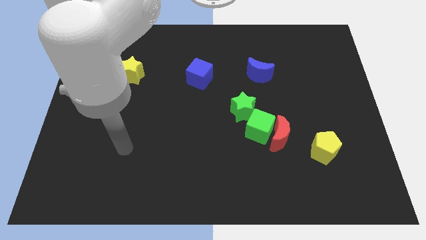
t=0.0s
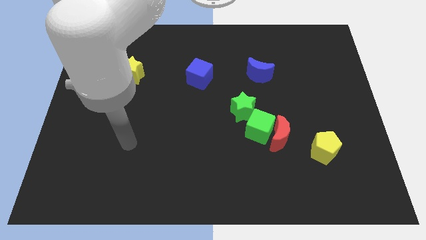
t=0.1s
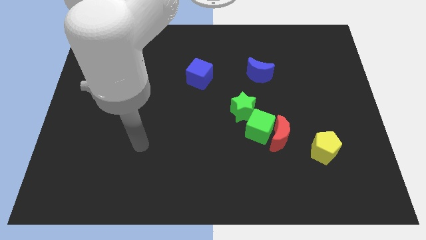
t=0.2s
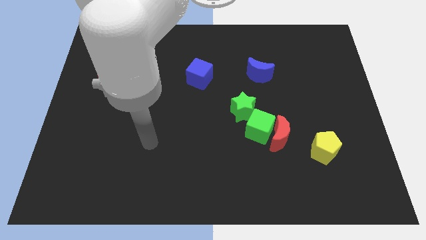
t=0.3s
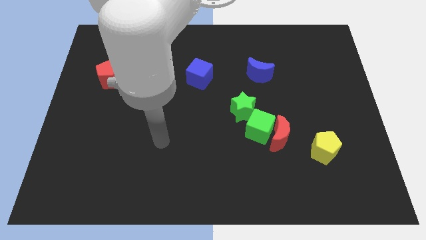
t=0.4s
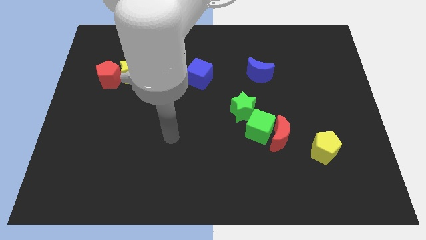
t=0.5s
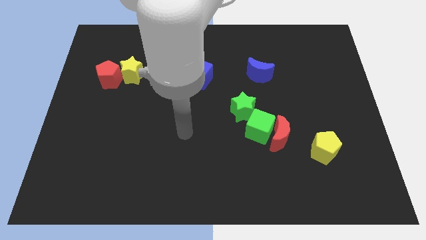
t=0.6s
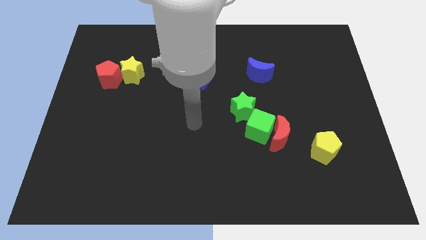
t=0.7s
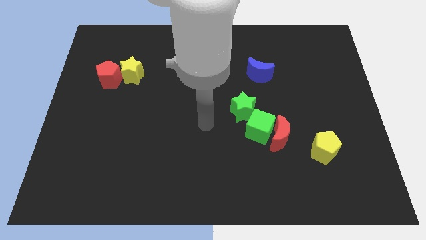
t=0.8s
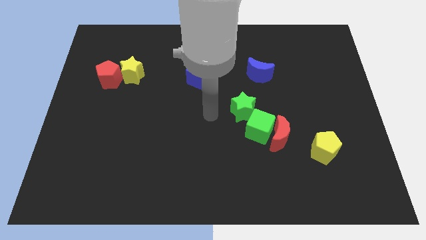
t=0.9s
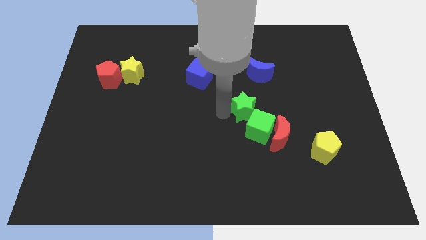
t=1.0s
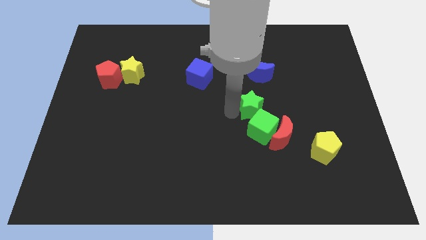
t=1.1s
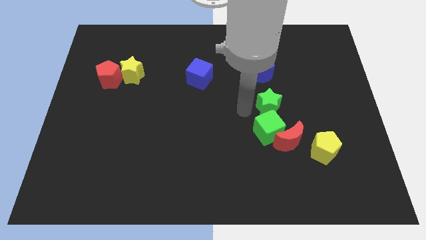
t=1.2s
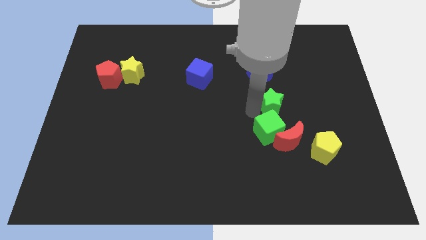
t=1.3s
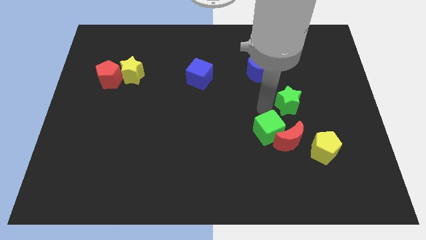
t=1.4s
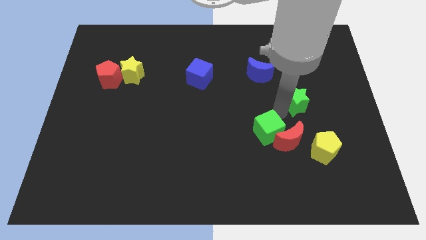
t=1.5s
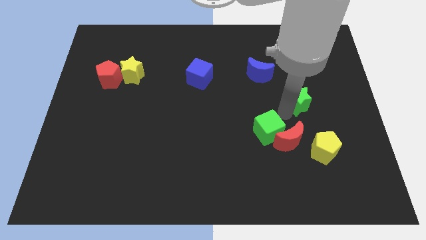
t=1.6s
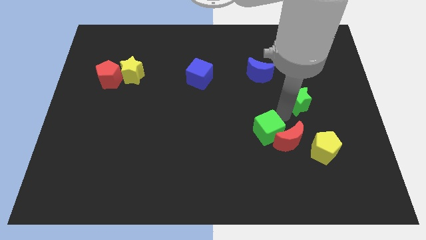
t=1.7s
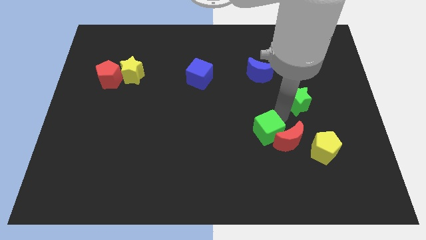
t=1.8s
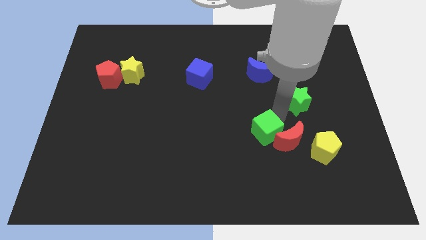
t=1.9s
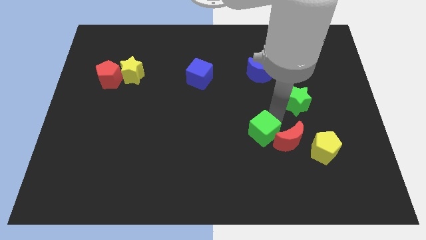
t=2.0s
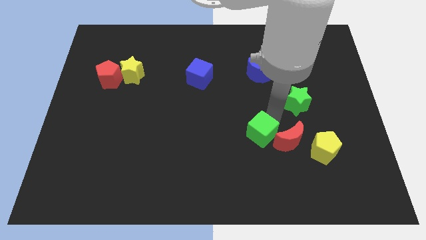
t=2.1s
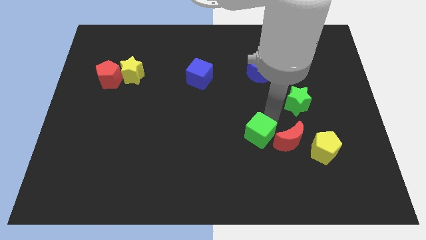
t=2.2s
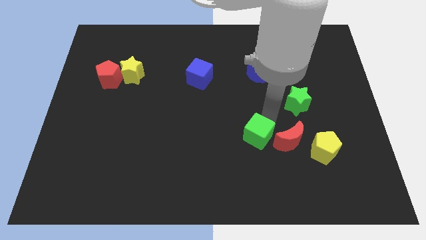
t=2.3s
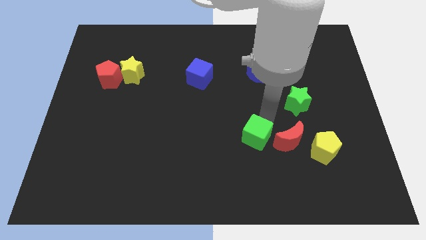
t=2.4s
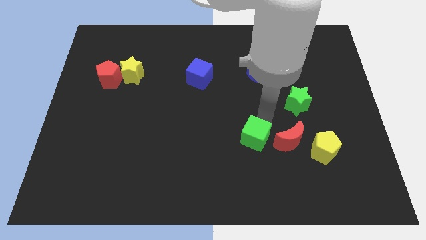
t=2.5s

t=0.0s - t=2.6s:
pull the green cube apart from the red moon and green star

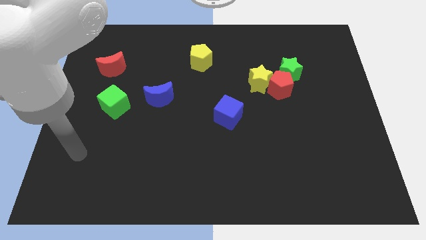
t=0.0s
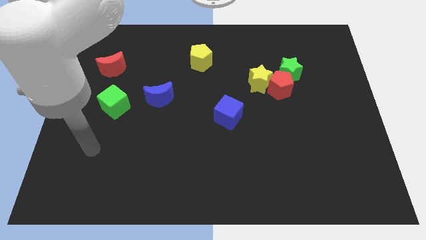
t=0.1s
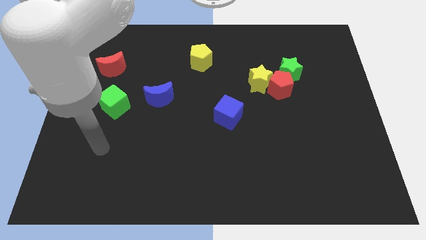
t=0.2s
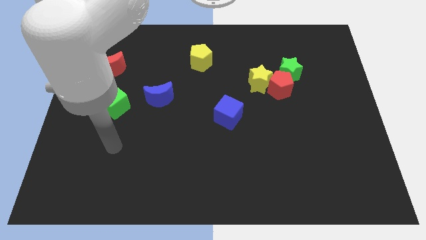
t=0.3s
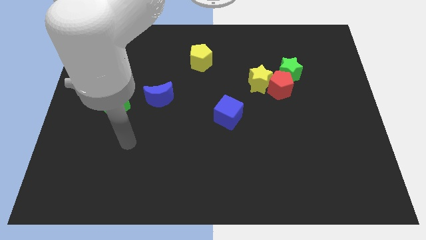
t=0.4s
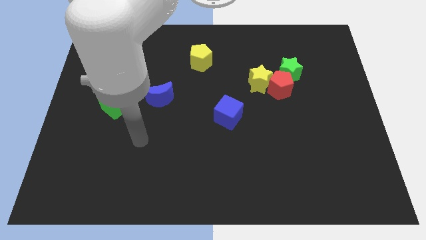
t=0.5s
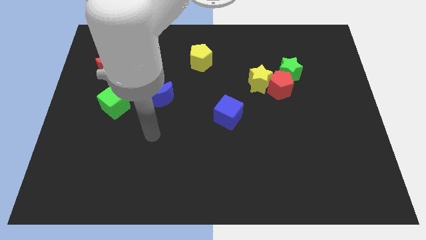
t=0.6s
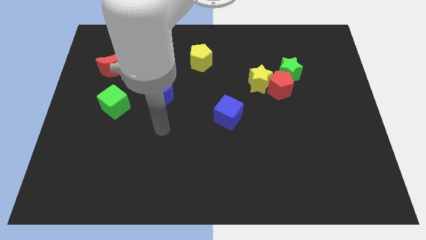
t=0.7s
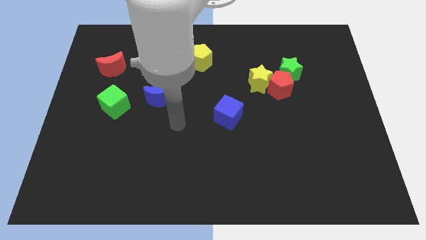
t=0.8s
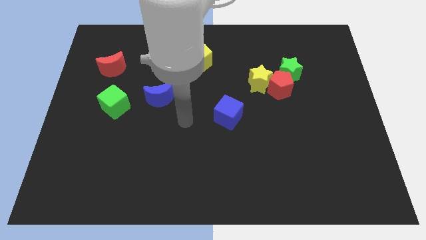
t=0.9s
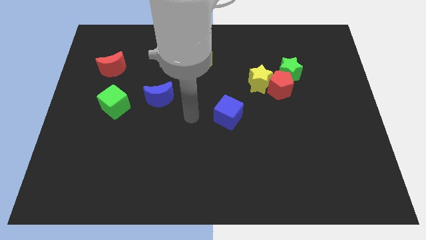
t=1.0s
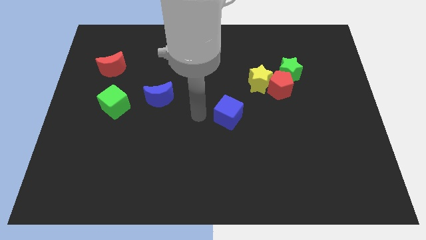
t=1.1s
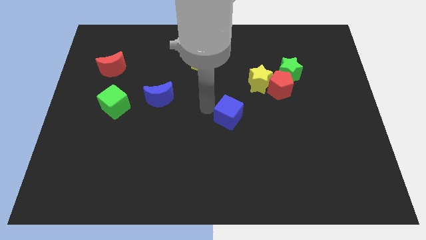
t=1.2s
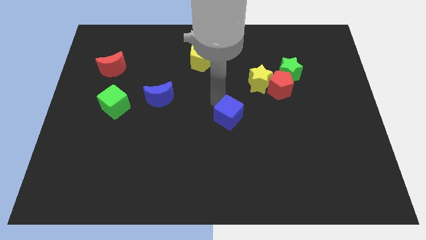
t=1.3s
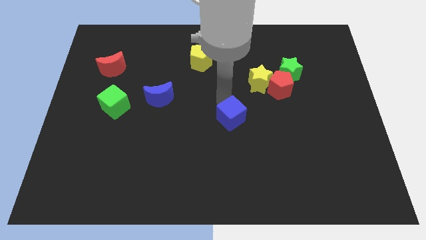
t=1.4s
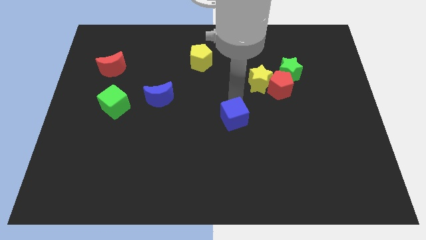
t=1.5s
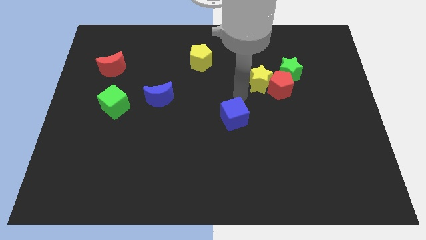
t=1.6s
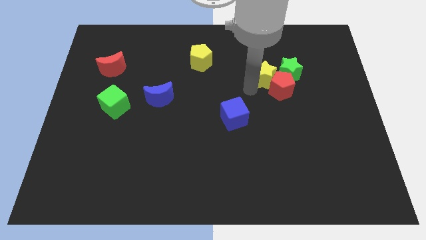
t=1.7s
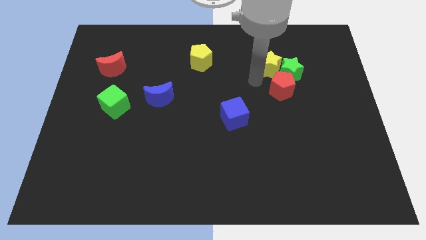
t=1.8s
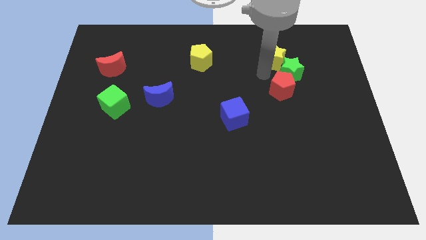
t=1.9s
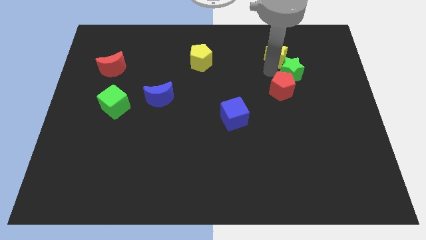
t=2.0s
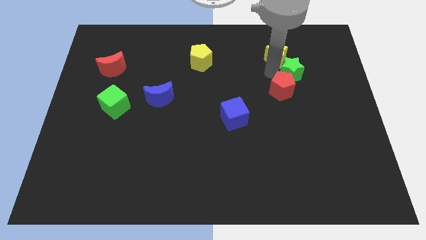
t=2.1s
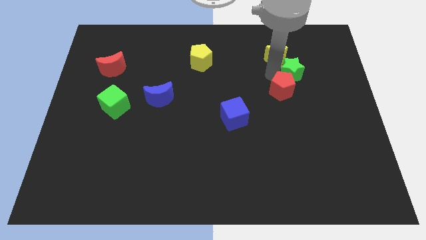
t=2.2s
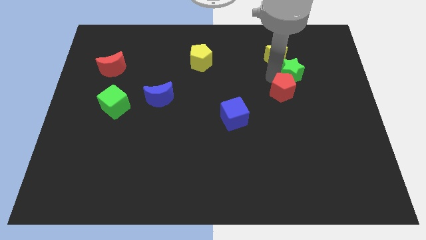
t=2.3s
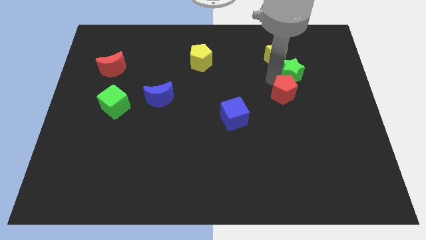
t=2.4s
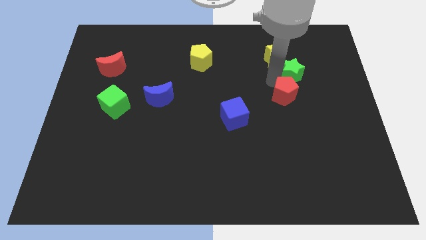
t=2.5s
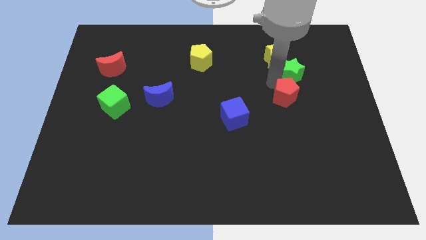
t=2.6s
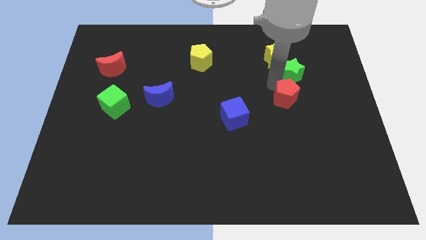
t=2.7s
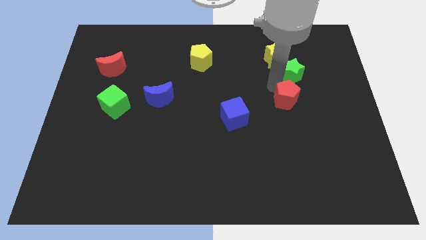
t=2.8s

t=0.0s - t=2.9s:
separate the red pentagon from the yellow star and green star

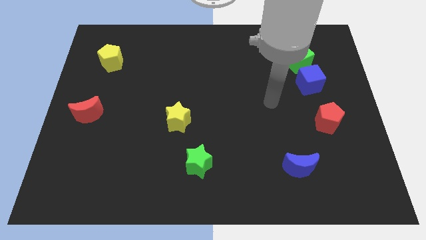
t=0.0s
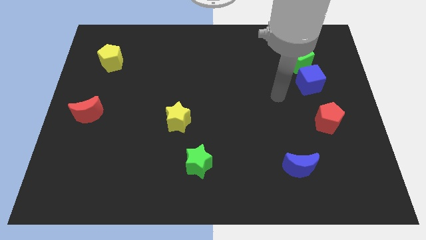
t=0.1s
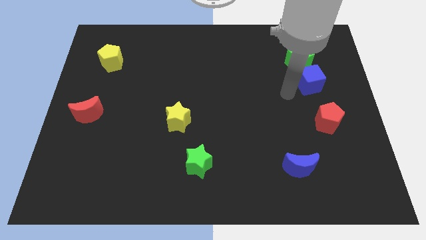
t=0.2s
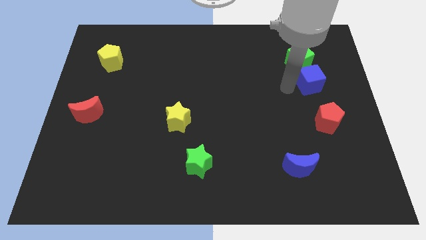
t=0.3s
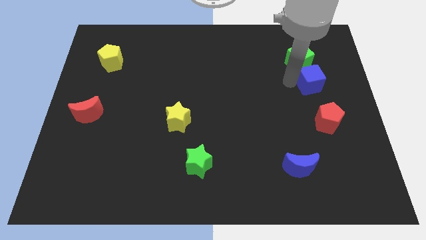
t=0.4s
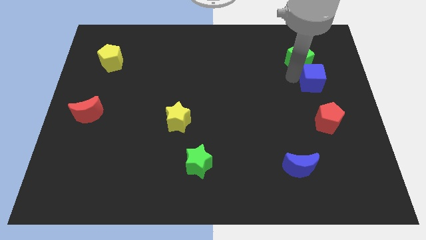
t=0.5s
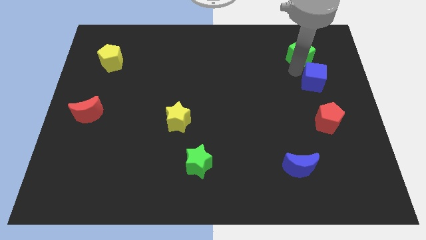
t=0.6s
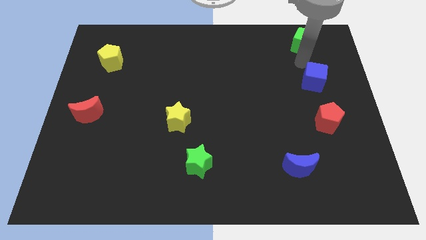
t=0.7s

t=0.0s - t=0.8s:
move the blue cube away from the green cube

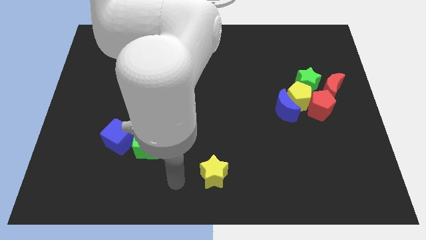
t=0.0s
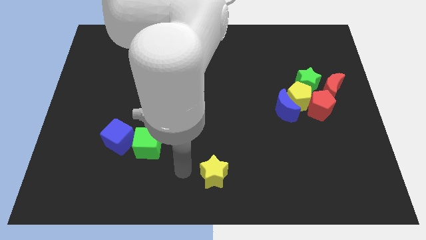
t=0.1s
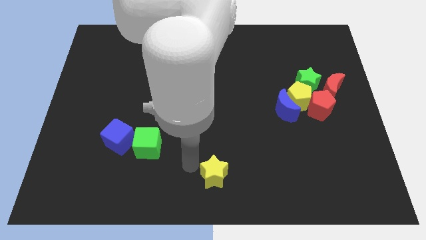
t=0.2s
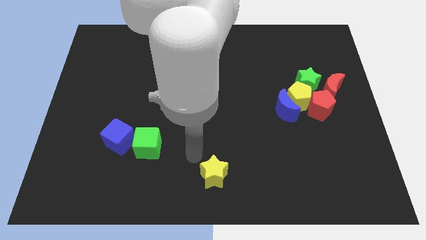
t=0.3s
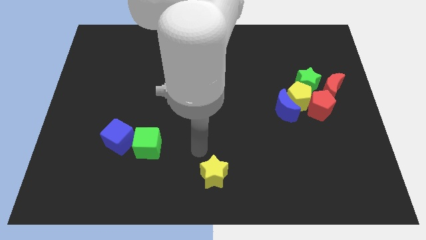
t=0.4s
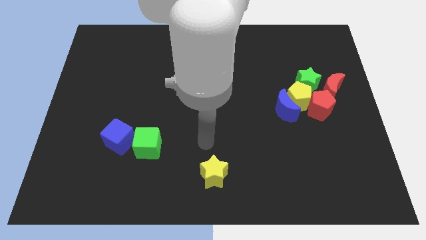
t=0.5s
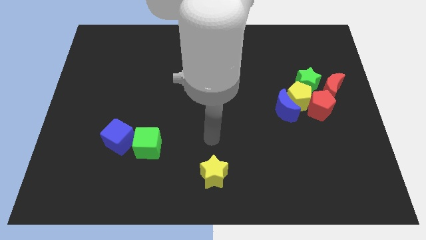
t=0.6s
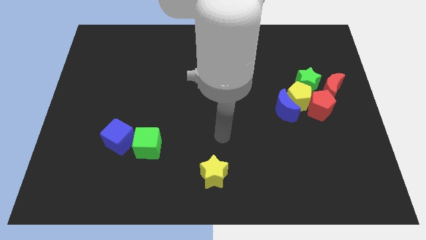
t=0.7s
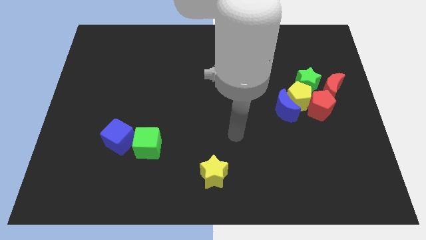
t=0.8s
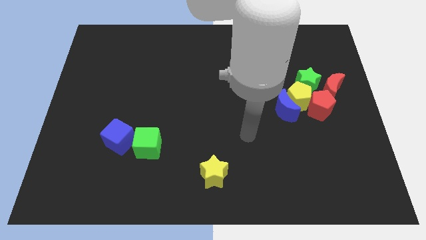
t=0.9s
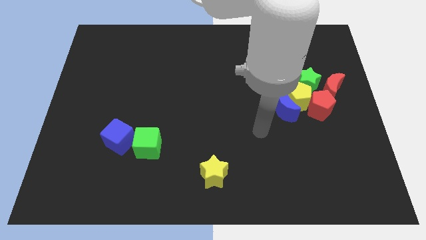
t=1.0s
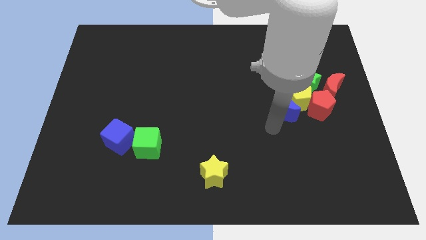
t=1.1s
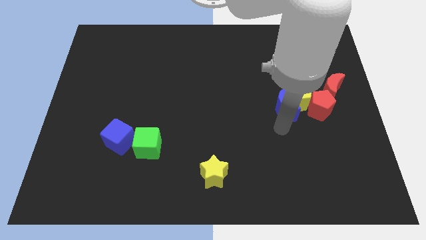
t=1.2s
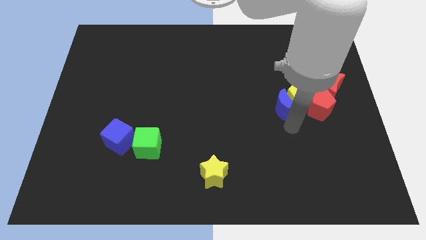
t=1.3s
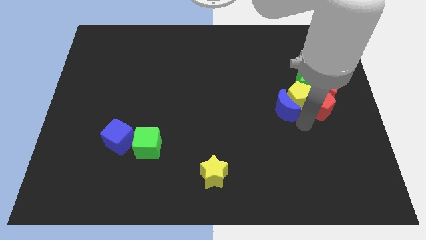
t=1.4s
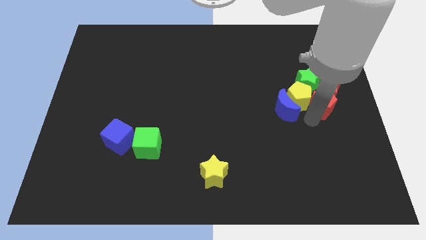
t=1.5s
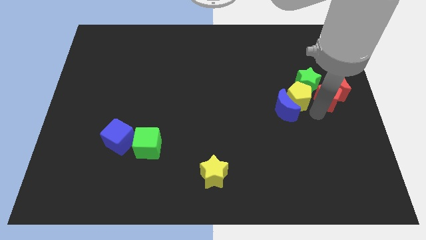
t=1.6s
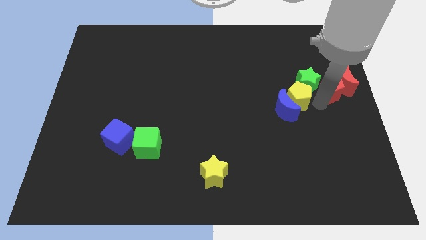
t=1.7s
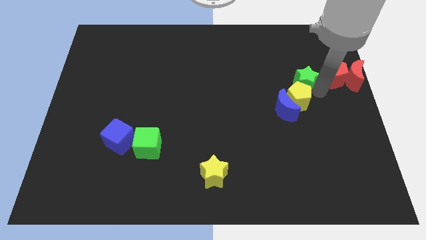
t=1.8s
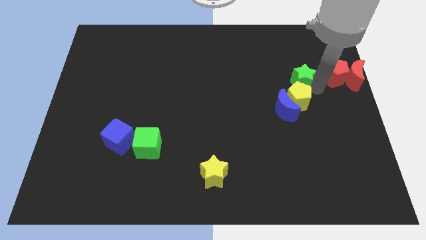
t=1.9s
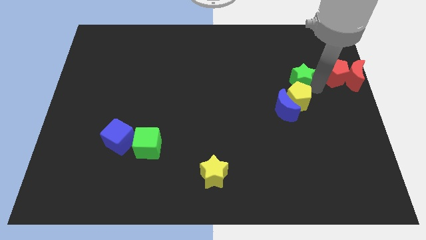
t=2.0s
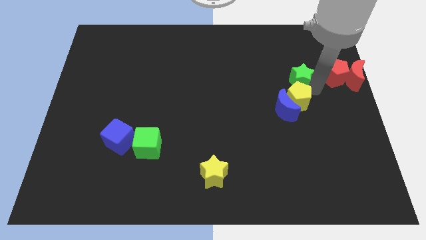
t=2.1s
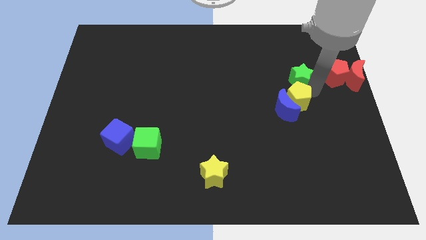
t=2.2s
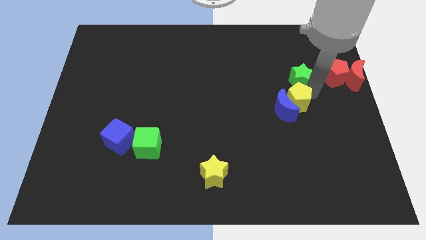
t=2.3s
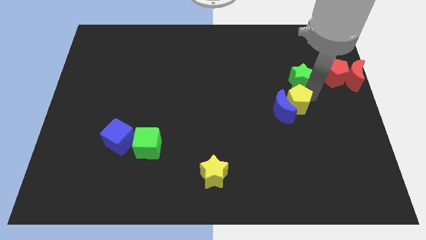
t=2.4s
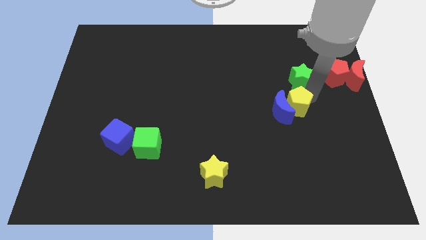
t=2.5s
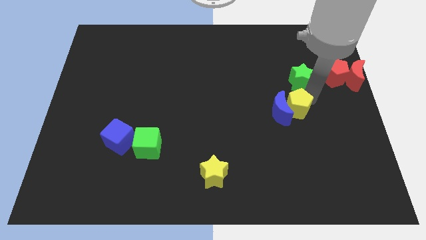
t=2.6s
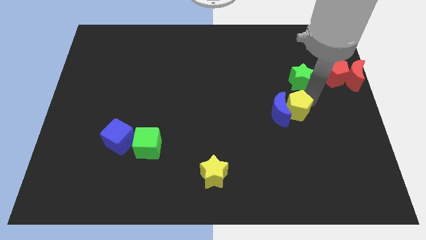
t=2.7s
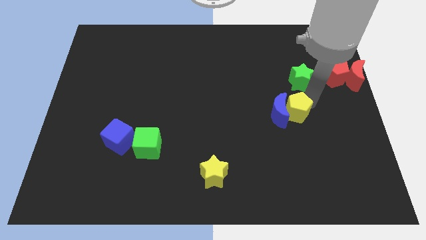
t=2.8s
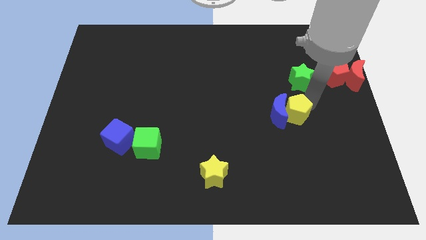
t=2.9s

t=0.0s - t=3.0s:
pull the yellow pentagon apart from the group

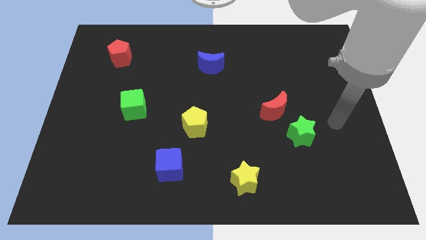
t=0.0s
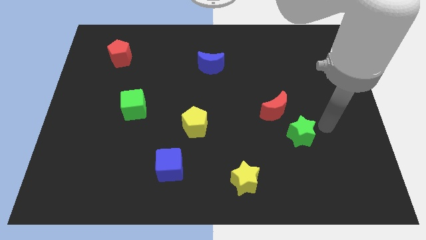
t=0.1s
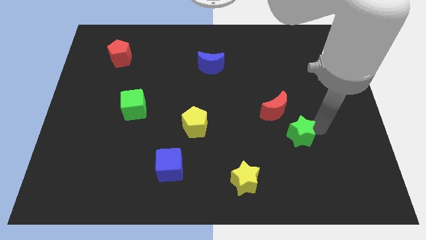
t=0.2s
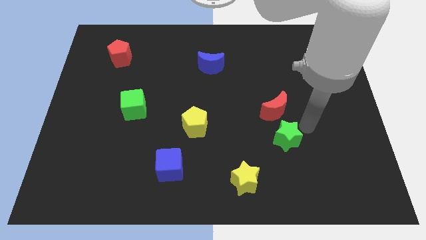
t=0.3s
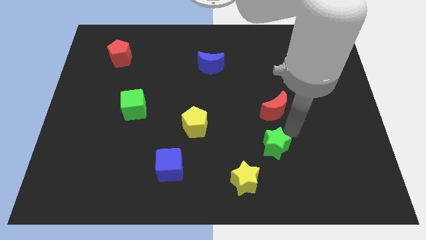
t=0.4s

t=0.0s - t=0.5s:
separate the red moon from the green star
